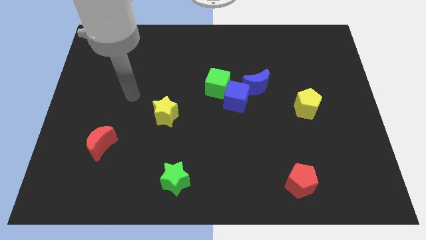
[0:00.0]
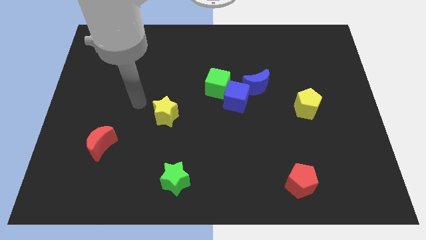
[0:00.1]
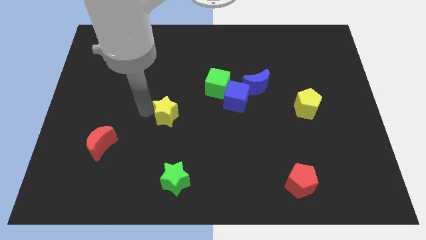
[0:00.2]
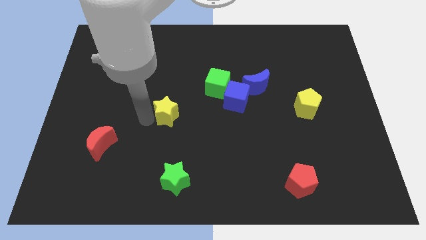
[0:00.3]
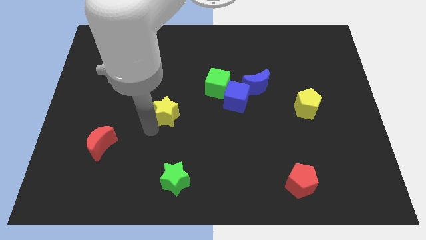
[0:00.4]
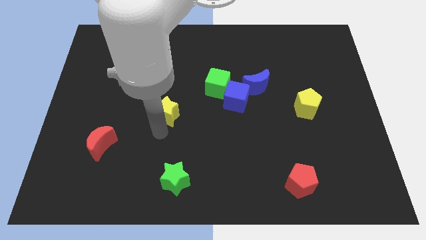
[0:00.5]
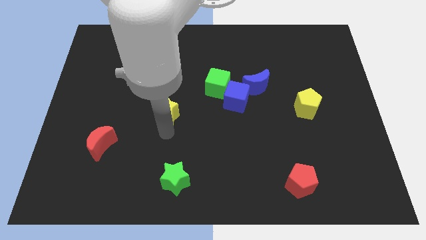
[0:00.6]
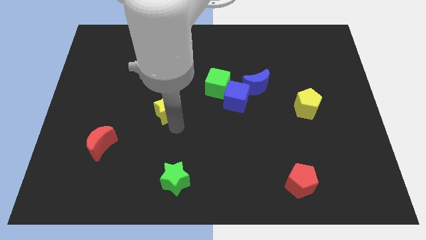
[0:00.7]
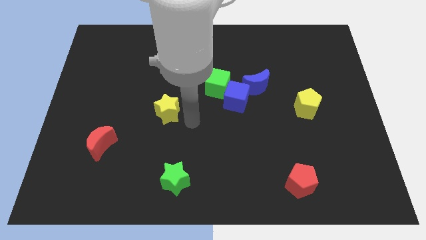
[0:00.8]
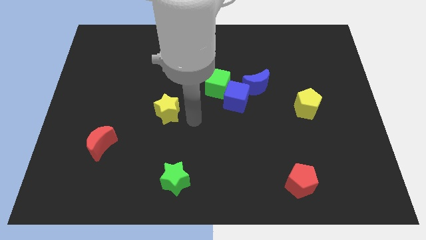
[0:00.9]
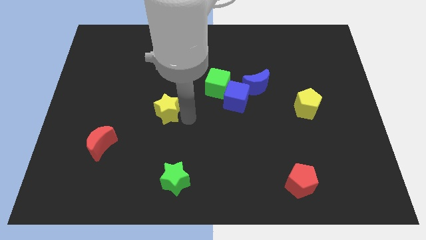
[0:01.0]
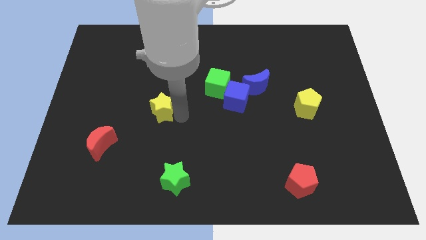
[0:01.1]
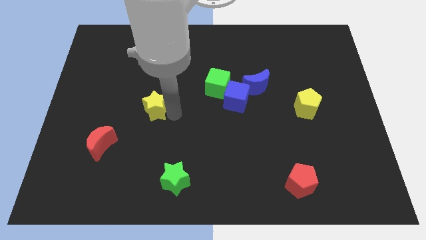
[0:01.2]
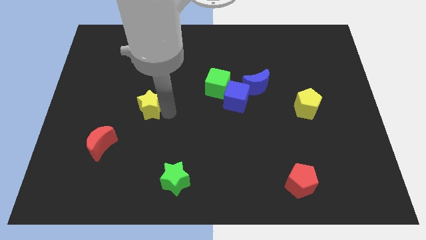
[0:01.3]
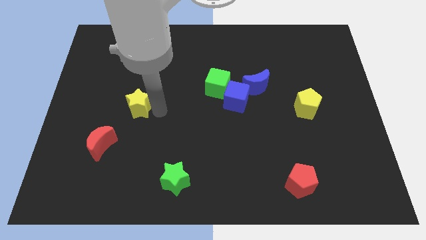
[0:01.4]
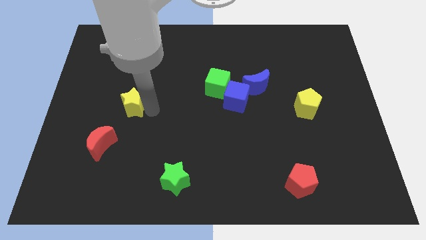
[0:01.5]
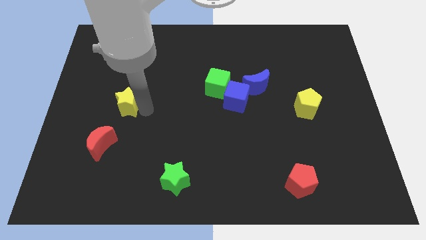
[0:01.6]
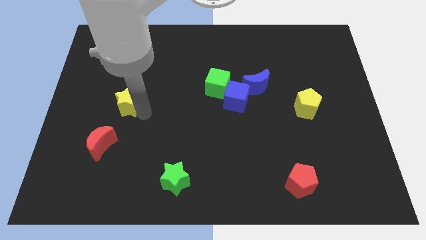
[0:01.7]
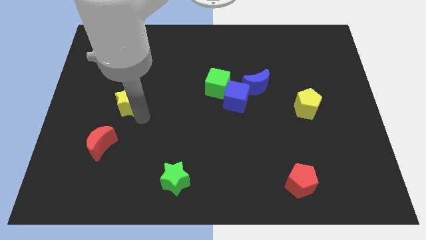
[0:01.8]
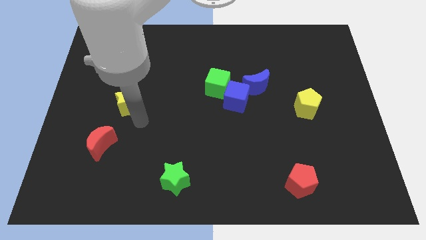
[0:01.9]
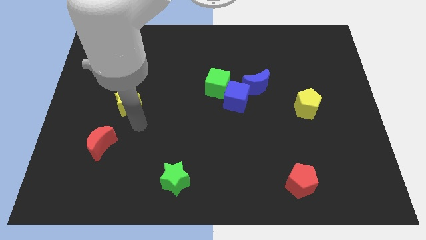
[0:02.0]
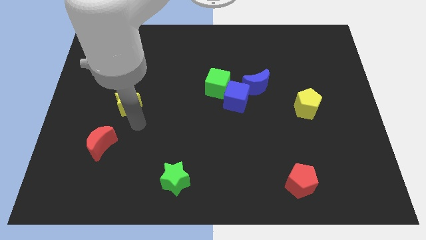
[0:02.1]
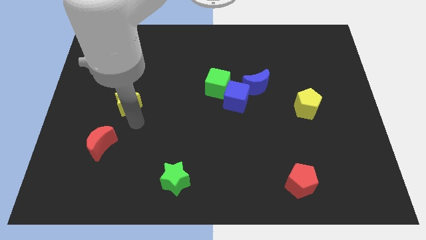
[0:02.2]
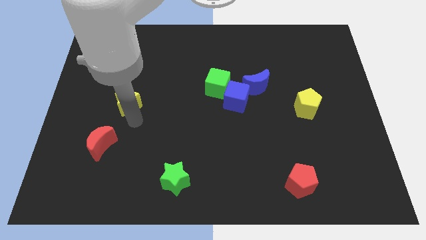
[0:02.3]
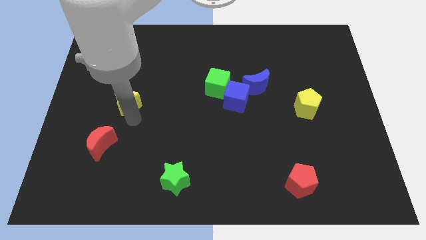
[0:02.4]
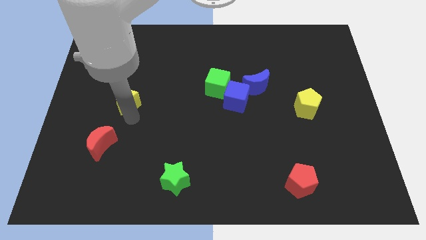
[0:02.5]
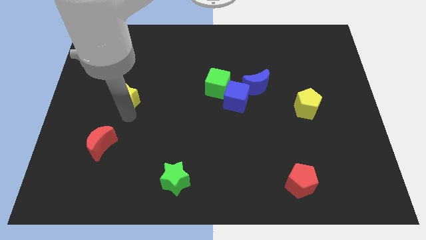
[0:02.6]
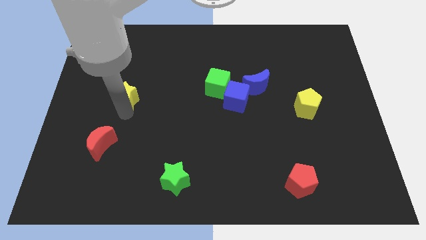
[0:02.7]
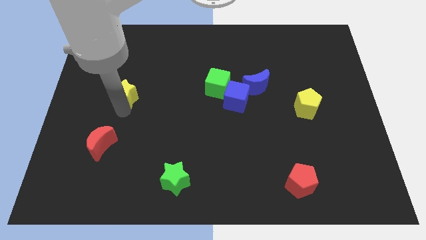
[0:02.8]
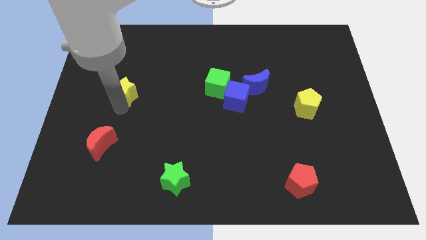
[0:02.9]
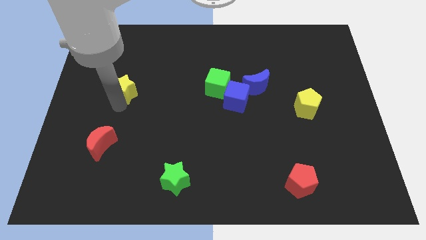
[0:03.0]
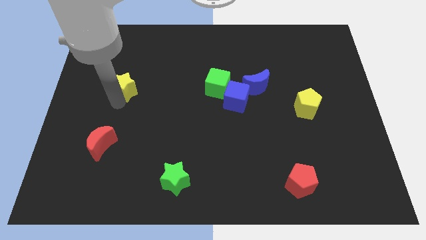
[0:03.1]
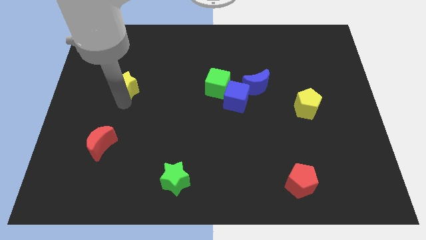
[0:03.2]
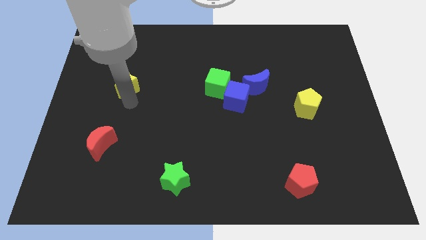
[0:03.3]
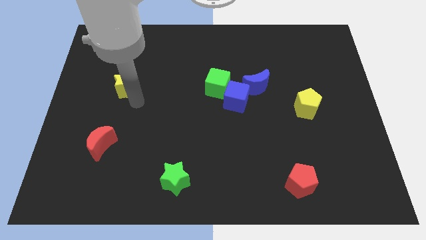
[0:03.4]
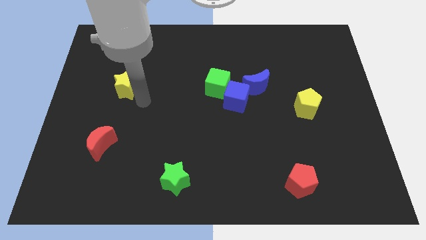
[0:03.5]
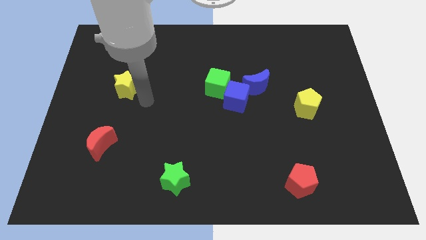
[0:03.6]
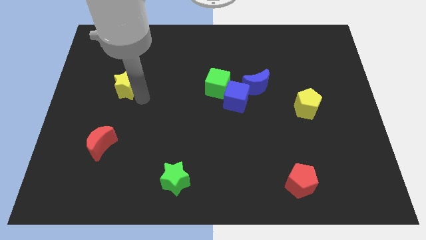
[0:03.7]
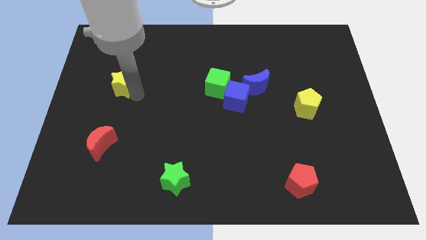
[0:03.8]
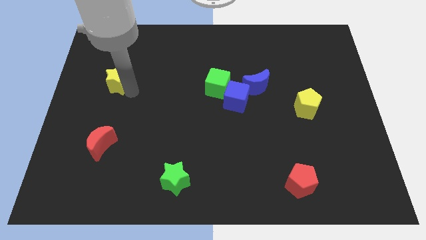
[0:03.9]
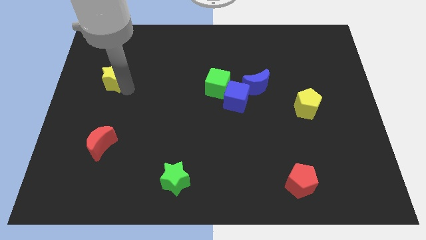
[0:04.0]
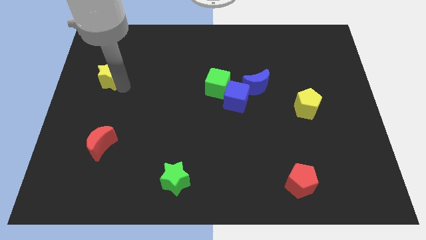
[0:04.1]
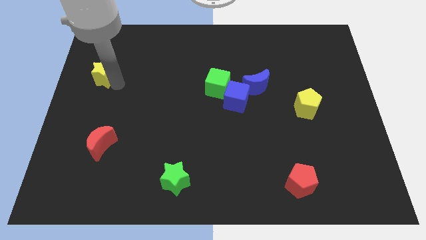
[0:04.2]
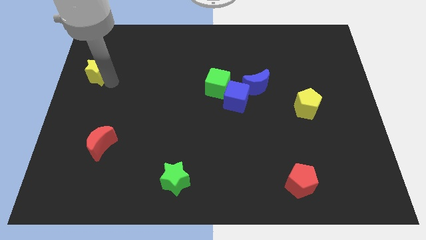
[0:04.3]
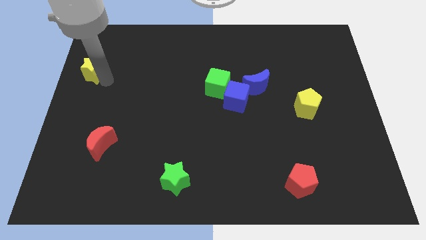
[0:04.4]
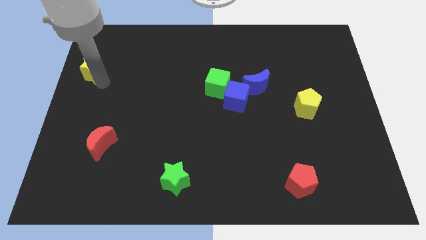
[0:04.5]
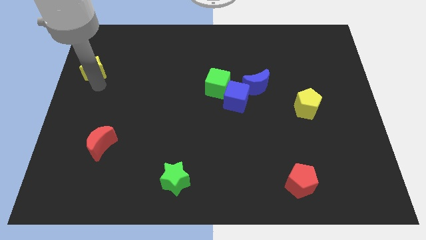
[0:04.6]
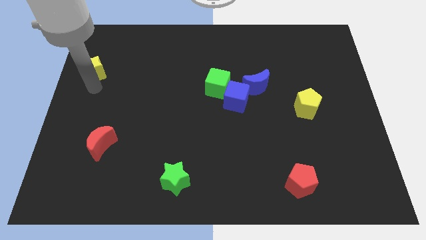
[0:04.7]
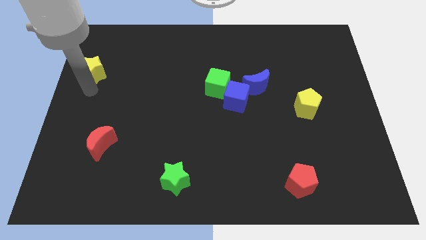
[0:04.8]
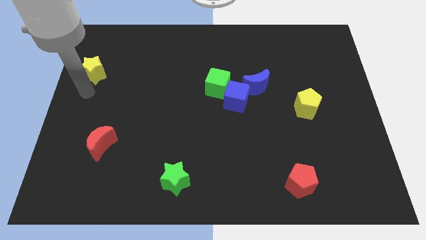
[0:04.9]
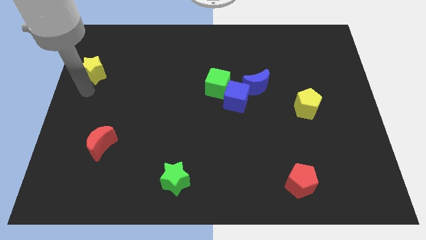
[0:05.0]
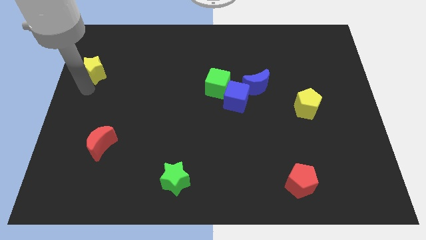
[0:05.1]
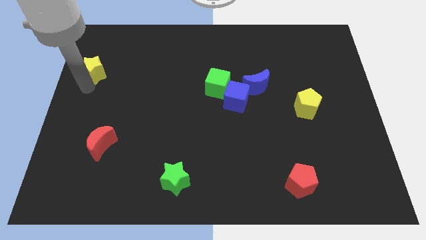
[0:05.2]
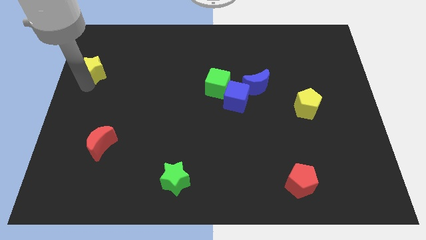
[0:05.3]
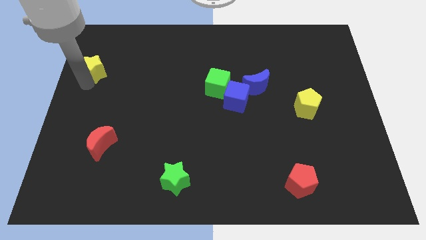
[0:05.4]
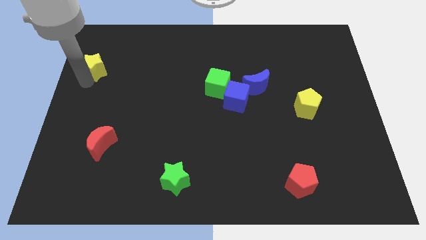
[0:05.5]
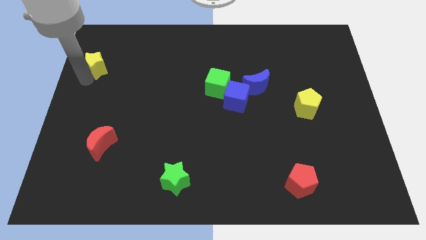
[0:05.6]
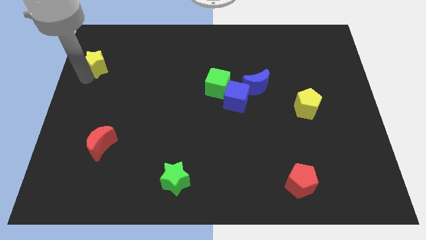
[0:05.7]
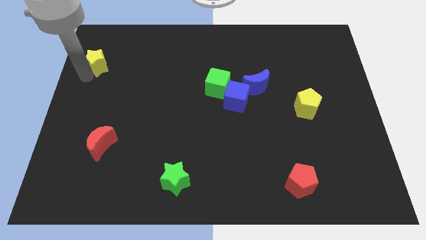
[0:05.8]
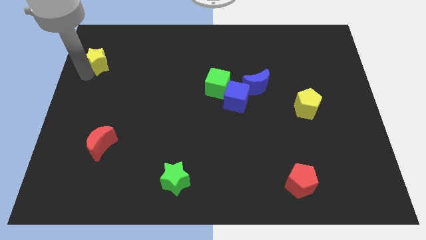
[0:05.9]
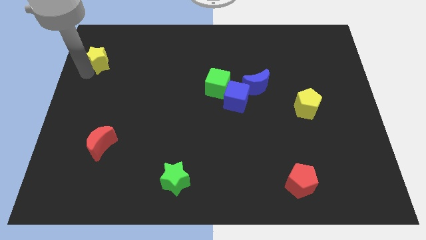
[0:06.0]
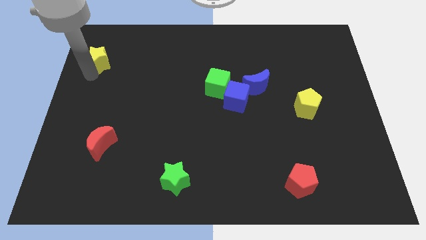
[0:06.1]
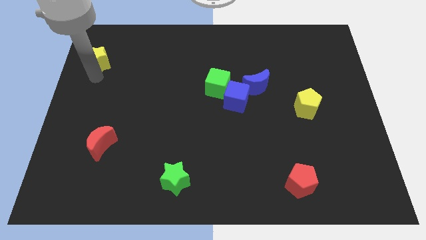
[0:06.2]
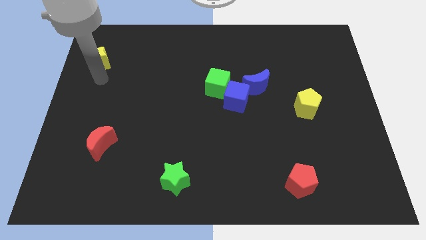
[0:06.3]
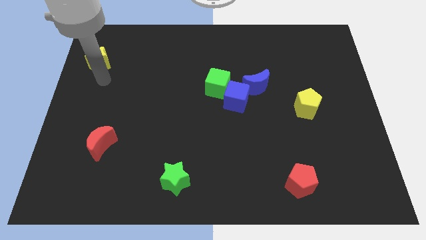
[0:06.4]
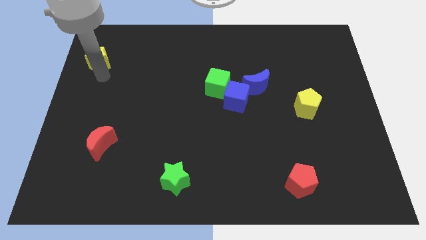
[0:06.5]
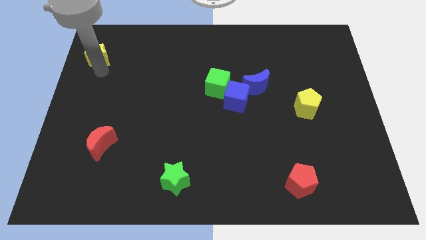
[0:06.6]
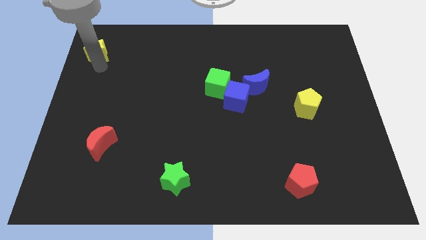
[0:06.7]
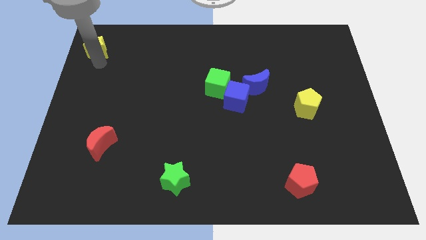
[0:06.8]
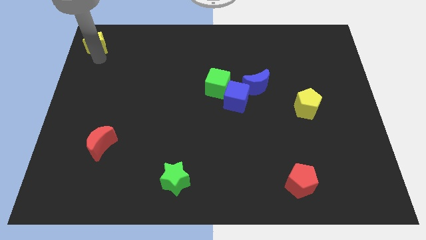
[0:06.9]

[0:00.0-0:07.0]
push the yellow star to the upper left corner

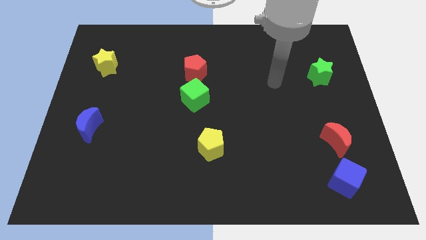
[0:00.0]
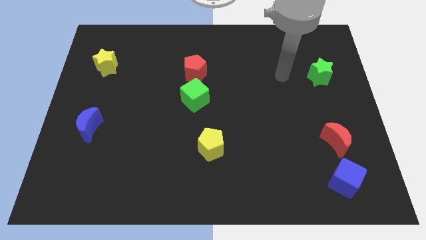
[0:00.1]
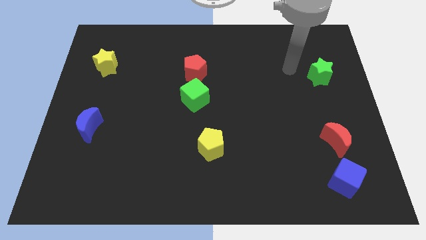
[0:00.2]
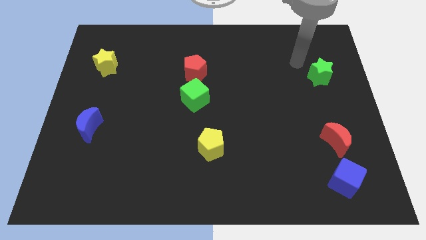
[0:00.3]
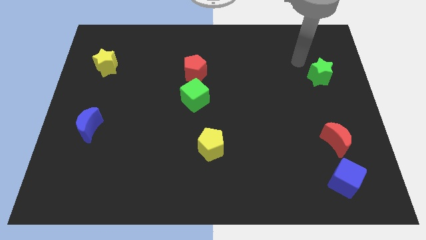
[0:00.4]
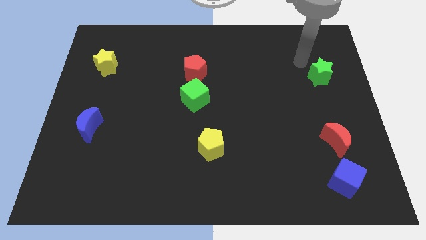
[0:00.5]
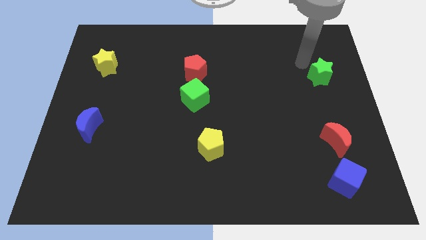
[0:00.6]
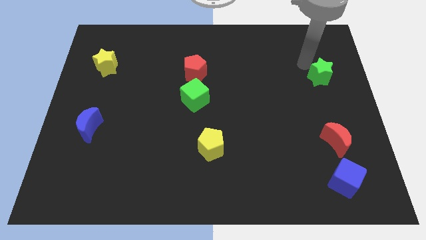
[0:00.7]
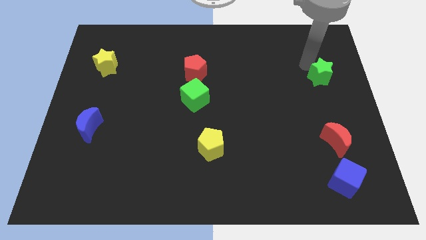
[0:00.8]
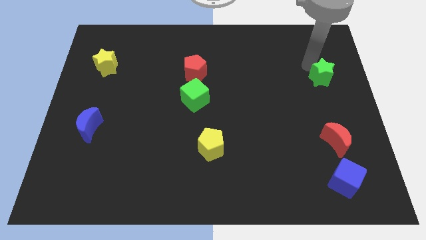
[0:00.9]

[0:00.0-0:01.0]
push the green star to the center right
